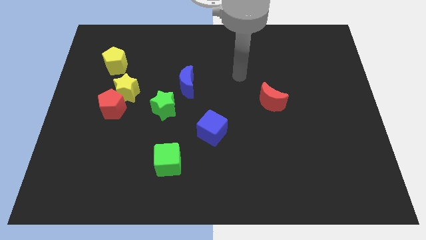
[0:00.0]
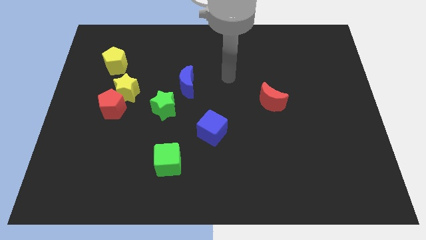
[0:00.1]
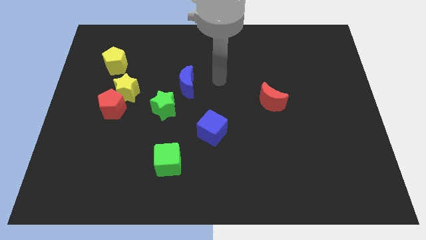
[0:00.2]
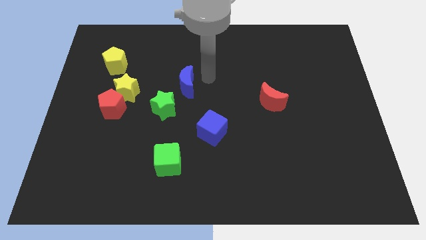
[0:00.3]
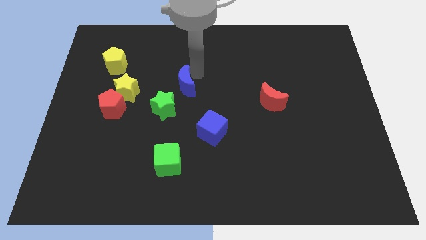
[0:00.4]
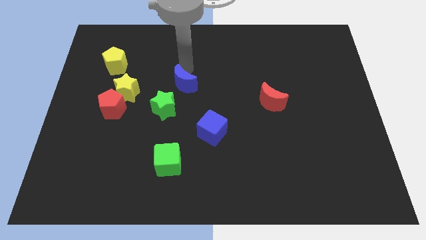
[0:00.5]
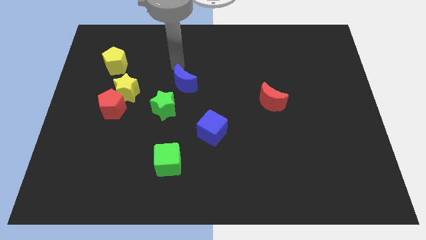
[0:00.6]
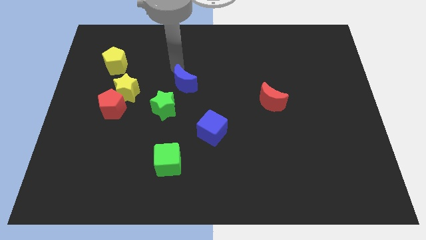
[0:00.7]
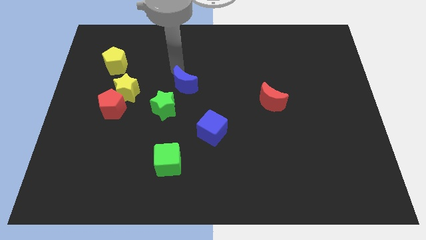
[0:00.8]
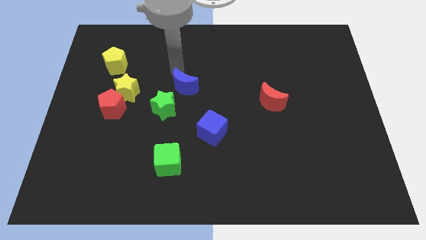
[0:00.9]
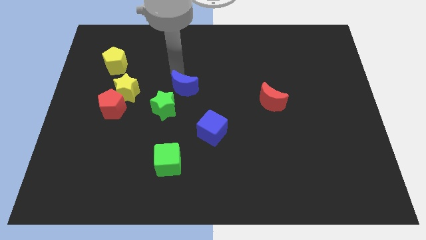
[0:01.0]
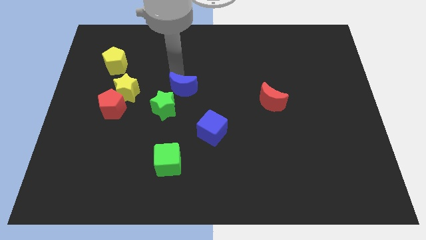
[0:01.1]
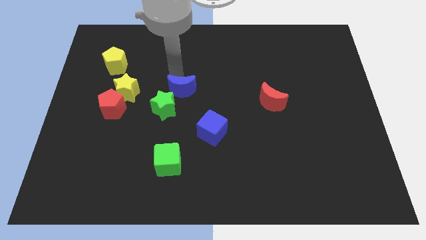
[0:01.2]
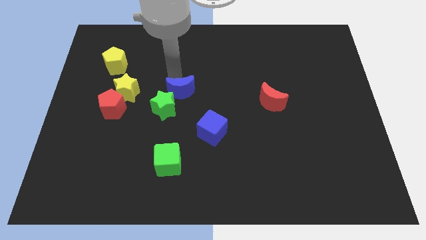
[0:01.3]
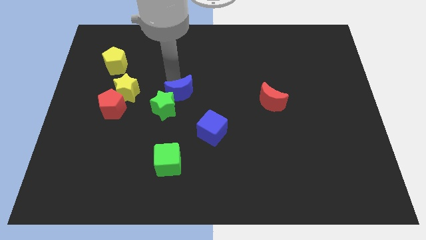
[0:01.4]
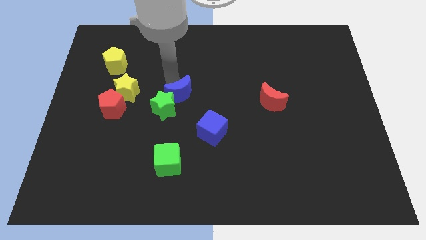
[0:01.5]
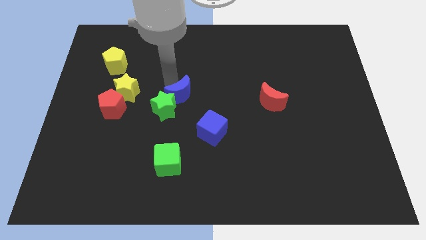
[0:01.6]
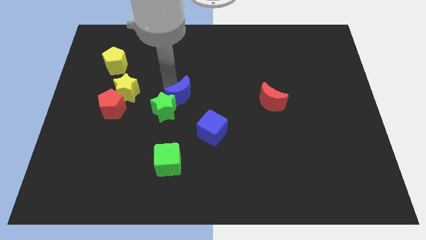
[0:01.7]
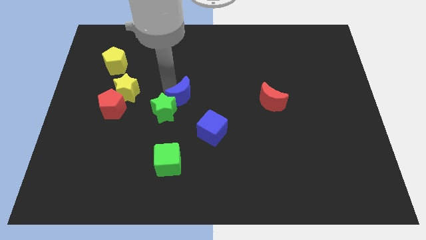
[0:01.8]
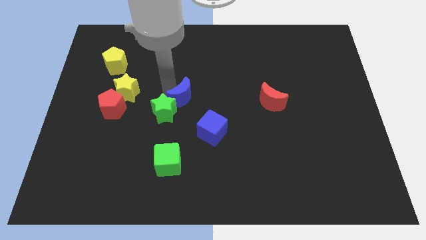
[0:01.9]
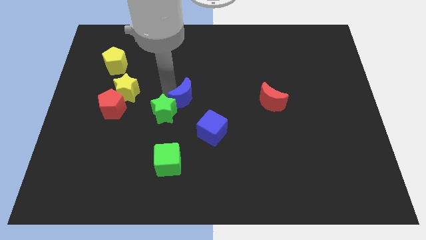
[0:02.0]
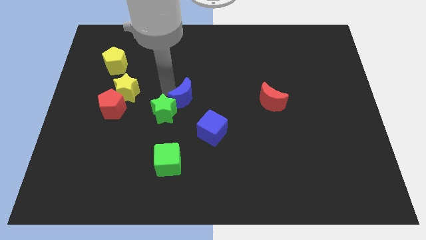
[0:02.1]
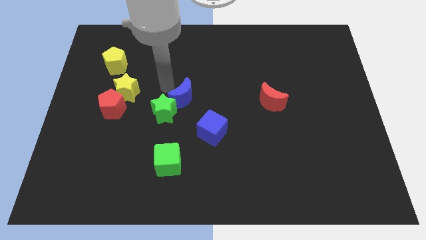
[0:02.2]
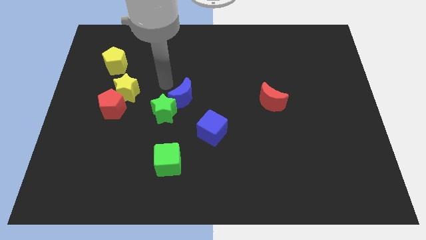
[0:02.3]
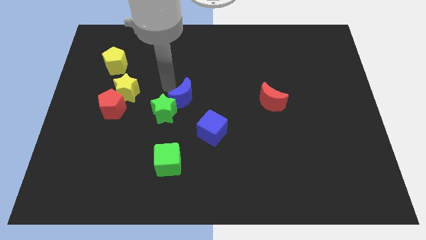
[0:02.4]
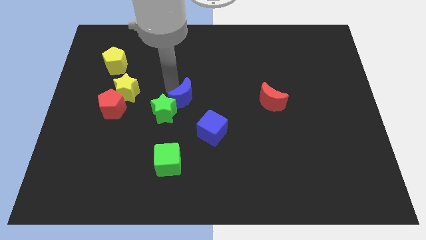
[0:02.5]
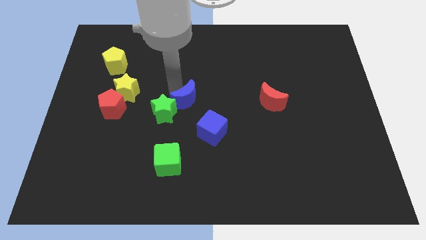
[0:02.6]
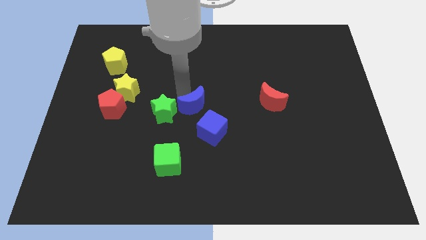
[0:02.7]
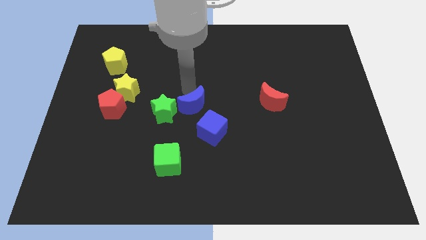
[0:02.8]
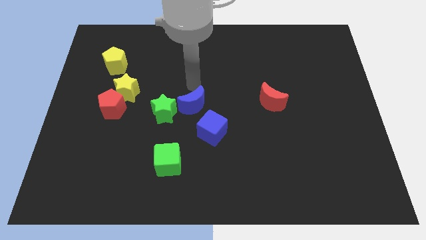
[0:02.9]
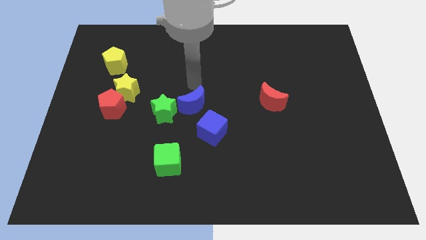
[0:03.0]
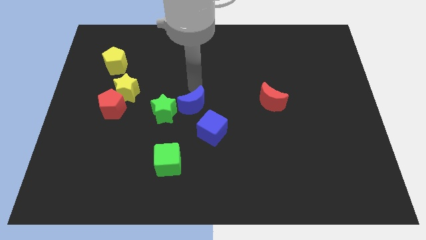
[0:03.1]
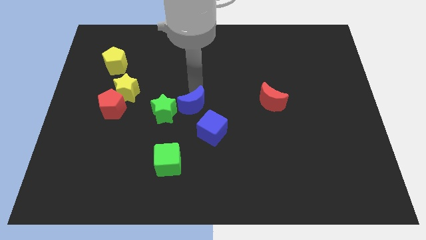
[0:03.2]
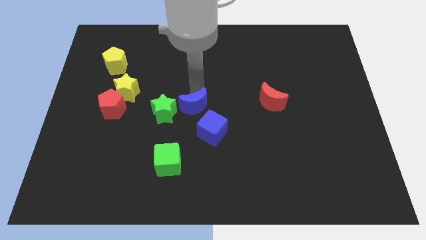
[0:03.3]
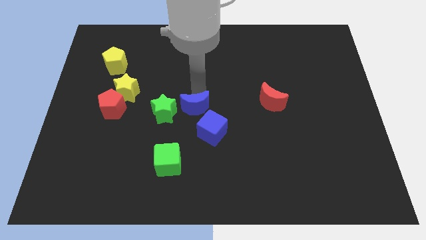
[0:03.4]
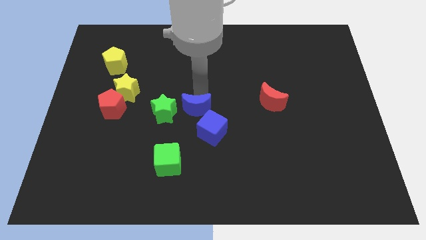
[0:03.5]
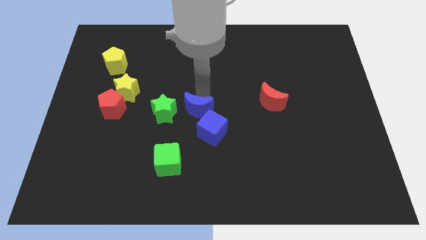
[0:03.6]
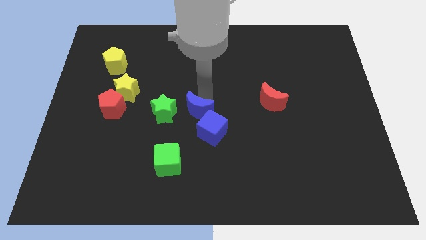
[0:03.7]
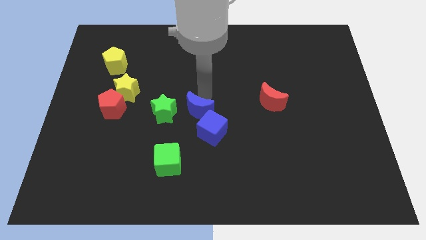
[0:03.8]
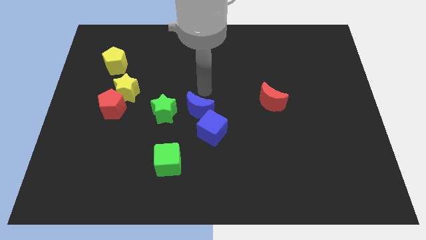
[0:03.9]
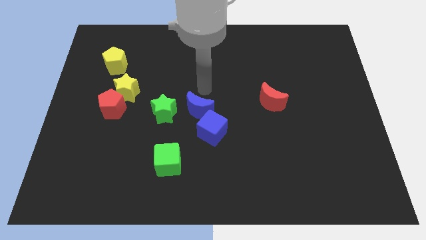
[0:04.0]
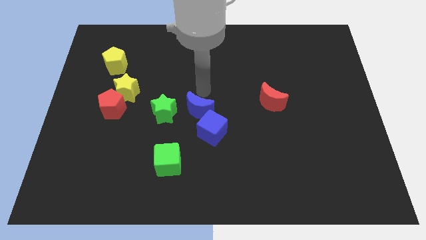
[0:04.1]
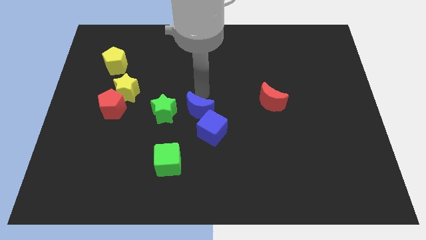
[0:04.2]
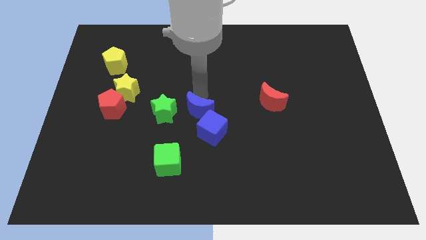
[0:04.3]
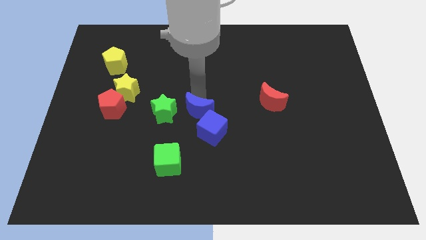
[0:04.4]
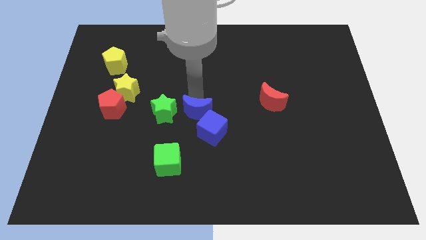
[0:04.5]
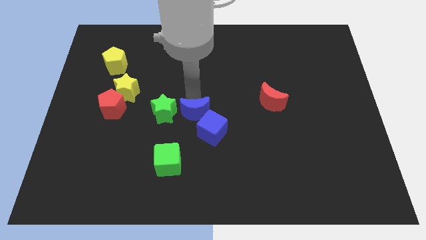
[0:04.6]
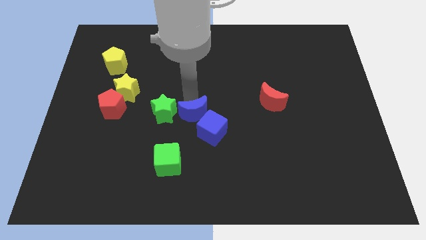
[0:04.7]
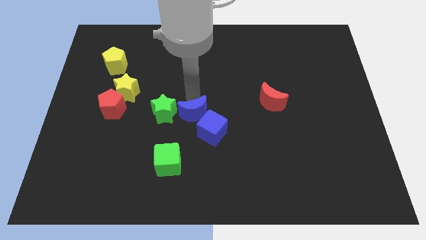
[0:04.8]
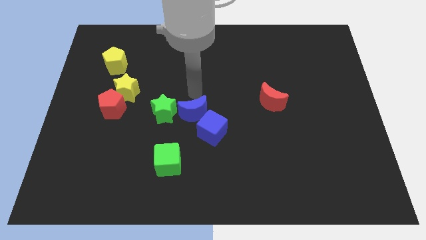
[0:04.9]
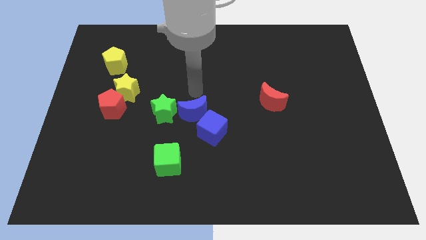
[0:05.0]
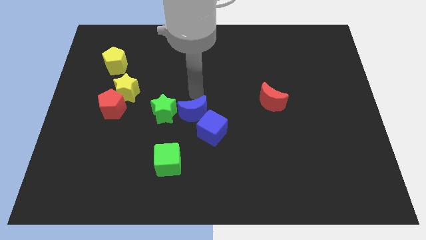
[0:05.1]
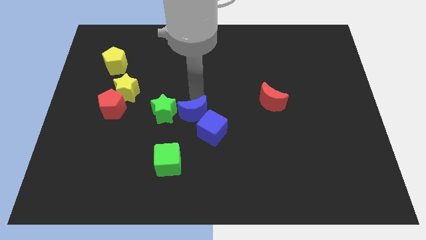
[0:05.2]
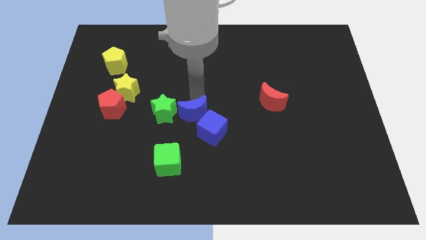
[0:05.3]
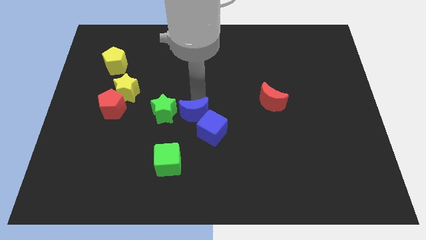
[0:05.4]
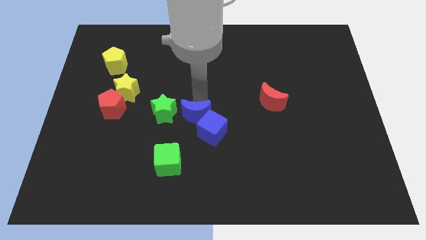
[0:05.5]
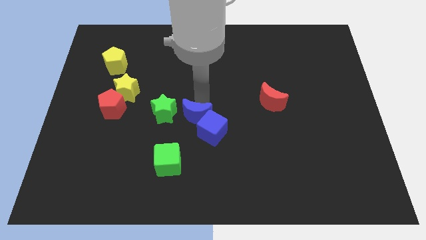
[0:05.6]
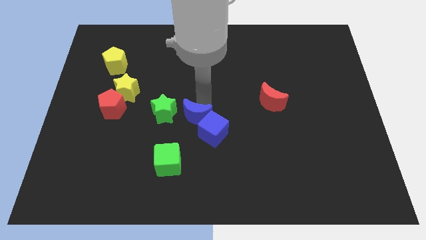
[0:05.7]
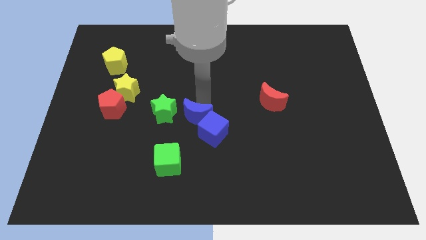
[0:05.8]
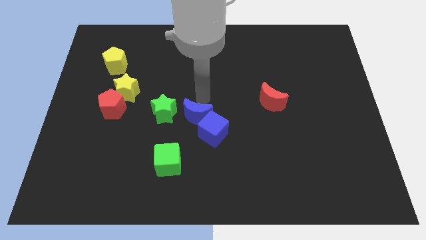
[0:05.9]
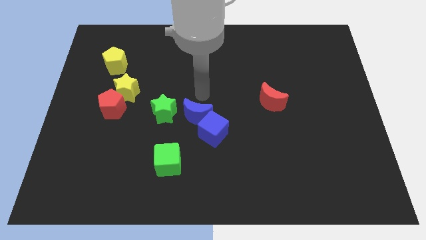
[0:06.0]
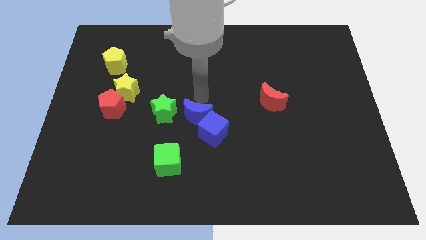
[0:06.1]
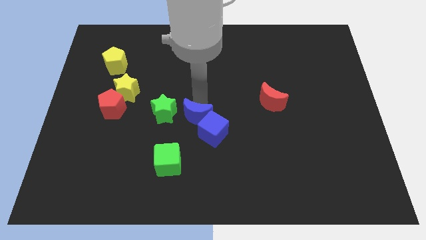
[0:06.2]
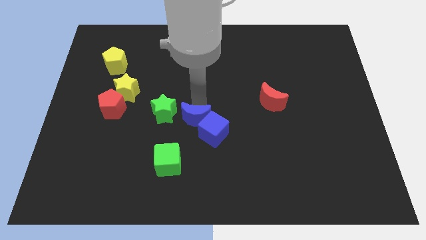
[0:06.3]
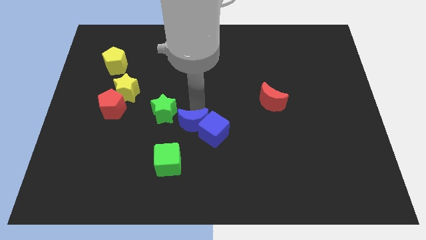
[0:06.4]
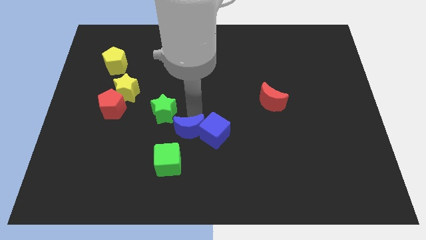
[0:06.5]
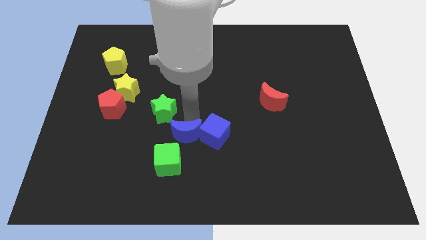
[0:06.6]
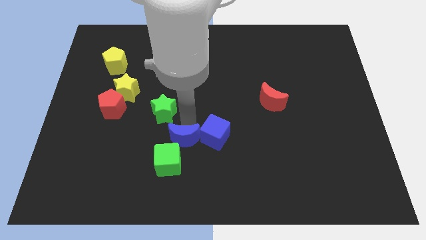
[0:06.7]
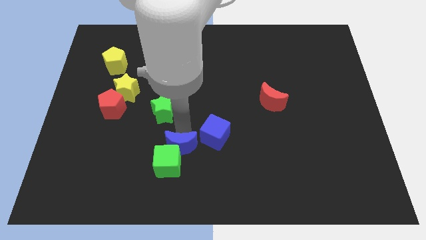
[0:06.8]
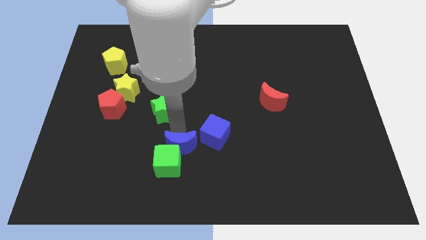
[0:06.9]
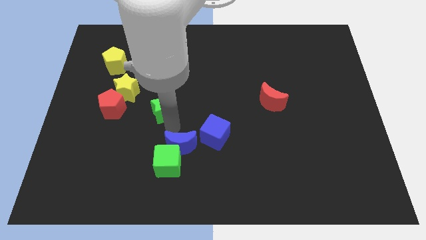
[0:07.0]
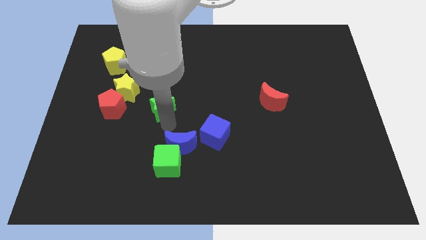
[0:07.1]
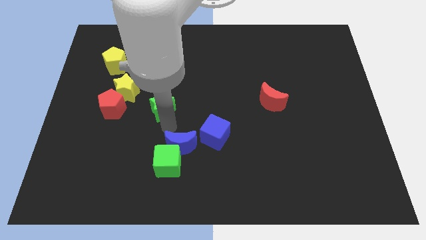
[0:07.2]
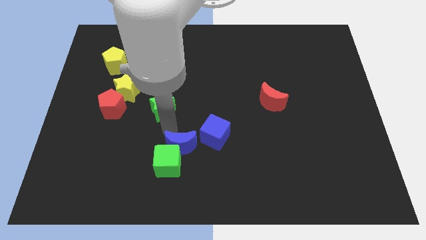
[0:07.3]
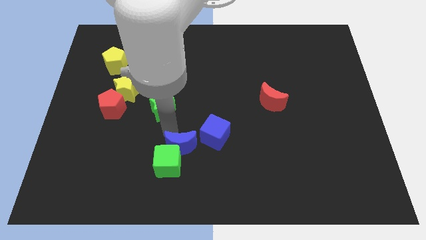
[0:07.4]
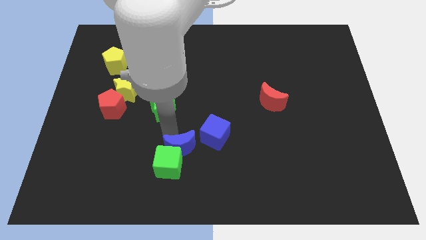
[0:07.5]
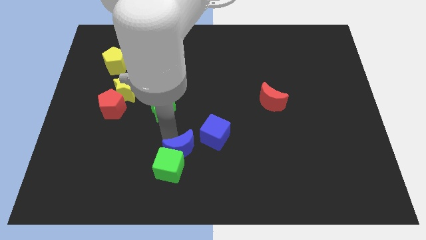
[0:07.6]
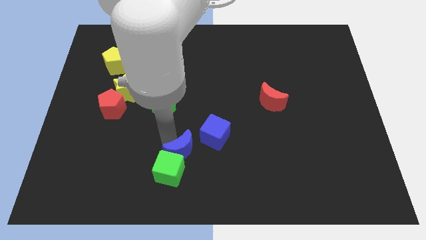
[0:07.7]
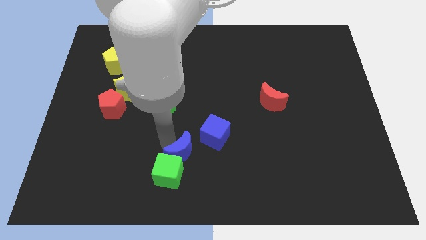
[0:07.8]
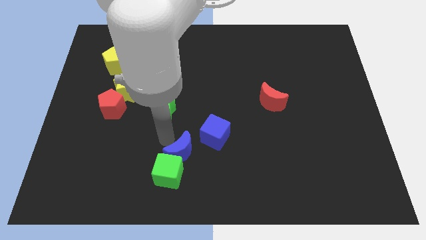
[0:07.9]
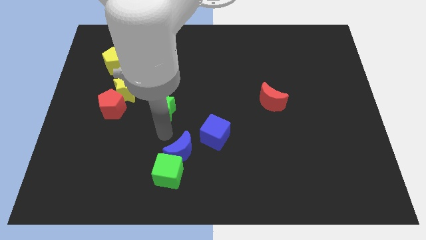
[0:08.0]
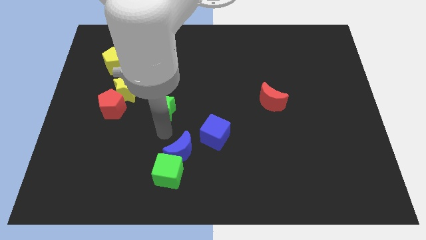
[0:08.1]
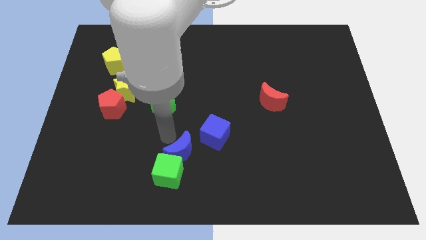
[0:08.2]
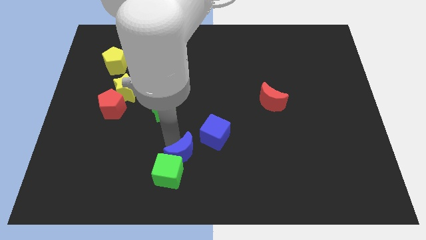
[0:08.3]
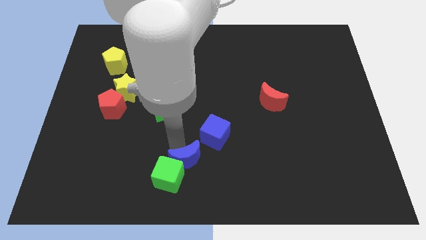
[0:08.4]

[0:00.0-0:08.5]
slide the blue moon to the bottom side
